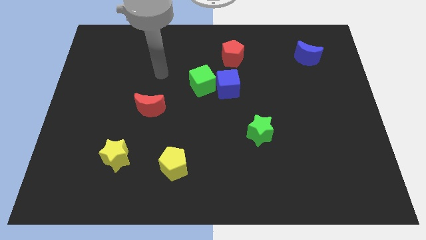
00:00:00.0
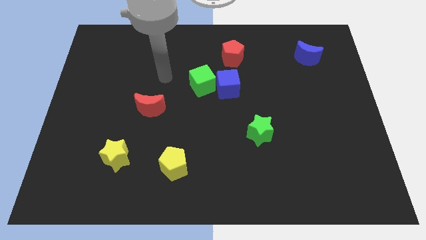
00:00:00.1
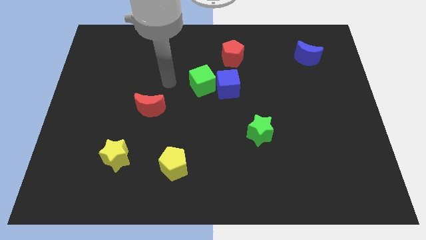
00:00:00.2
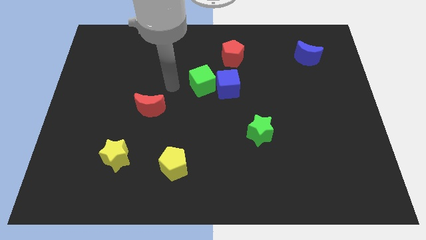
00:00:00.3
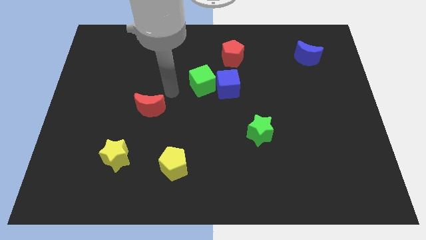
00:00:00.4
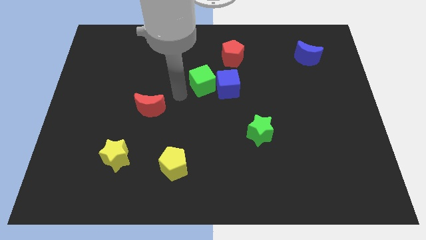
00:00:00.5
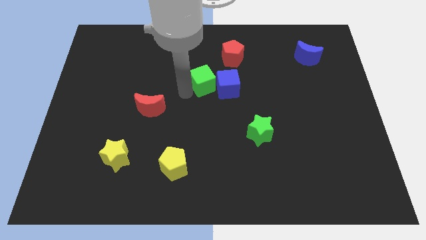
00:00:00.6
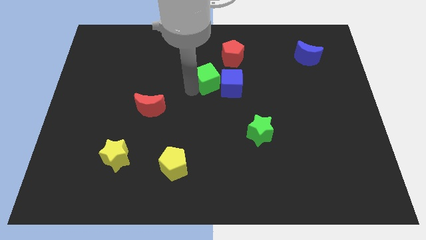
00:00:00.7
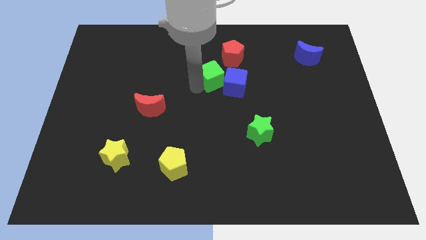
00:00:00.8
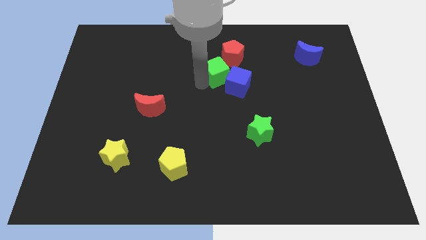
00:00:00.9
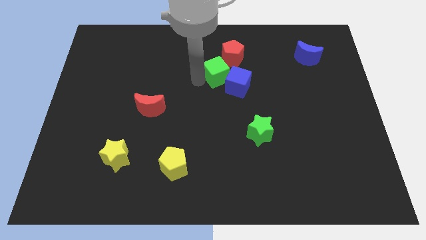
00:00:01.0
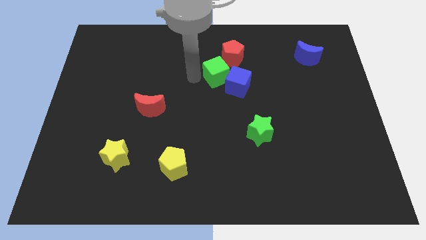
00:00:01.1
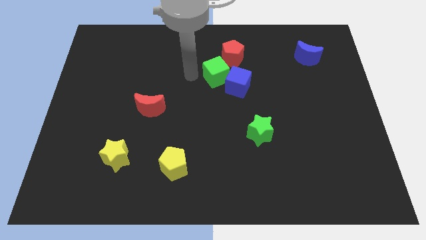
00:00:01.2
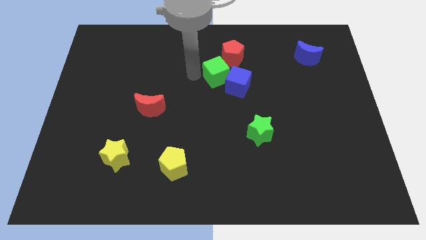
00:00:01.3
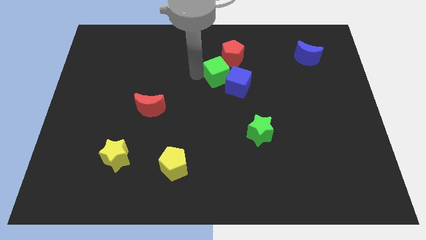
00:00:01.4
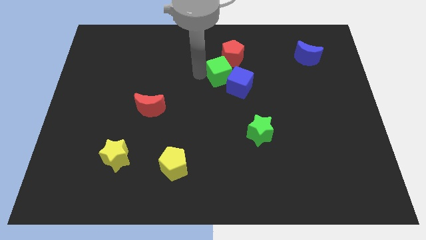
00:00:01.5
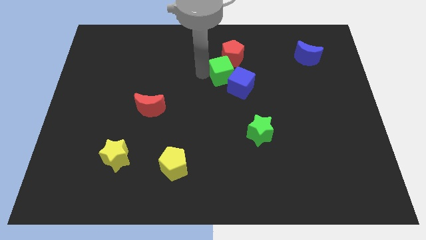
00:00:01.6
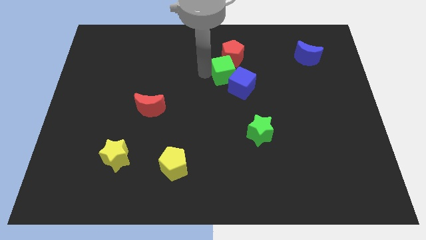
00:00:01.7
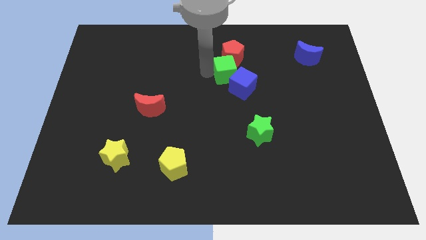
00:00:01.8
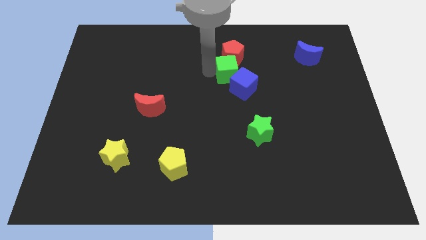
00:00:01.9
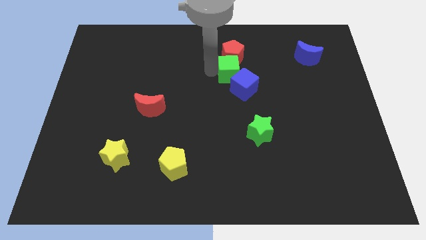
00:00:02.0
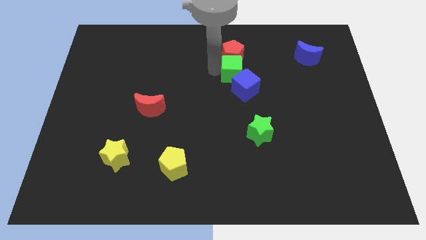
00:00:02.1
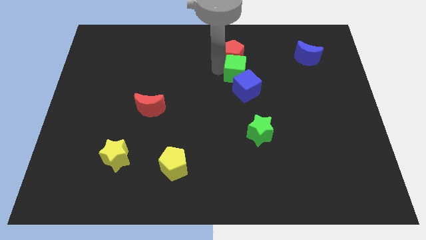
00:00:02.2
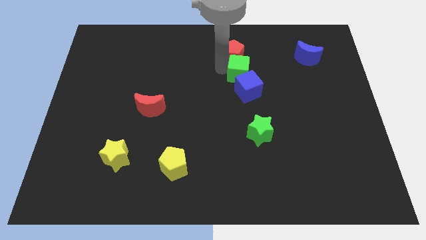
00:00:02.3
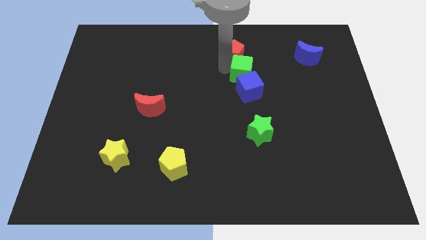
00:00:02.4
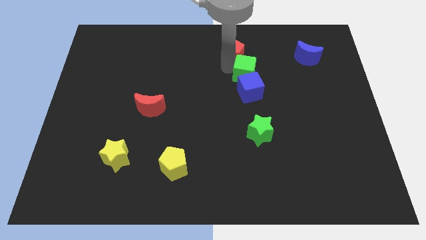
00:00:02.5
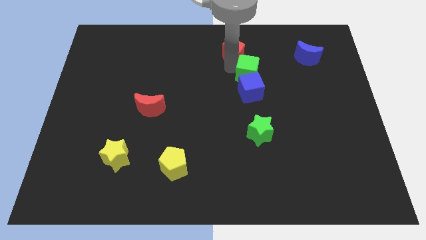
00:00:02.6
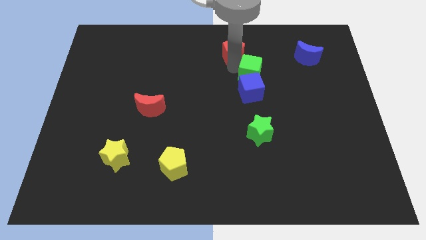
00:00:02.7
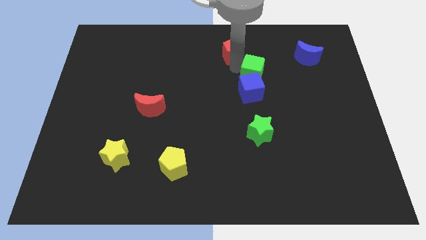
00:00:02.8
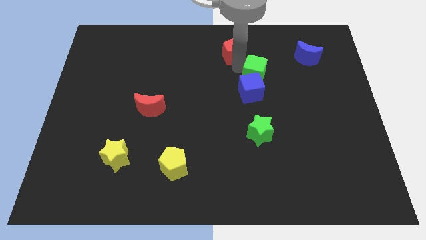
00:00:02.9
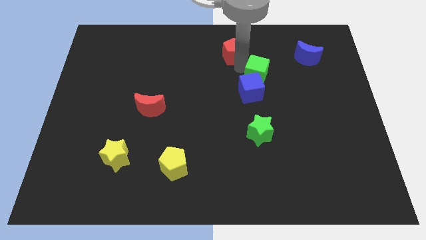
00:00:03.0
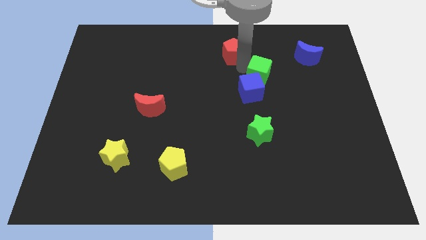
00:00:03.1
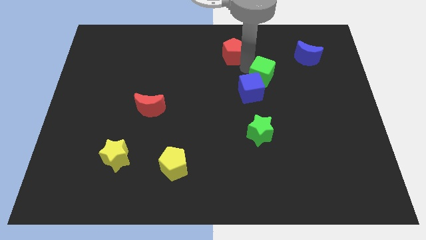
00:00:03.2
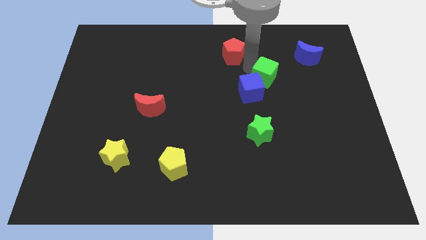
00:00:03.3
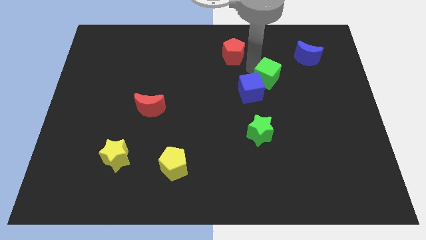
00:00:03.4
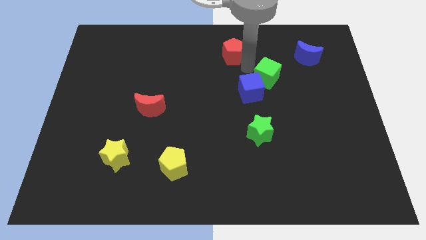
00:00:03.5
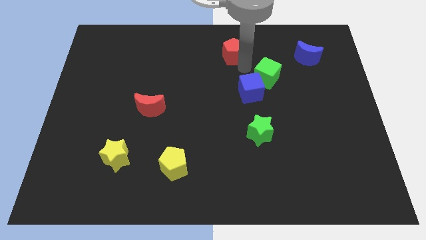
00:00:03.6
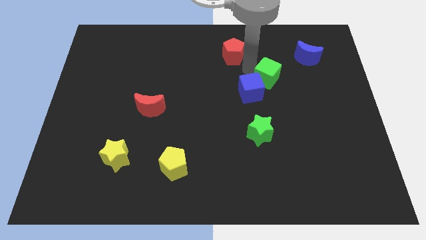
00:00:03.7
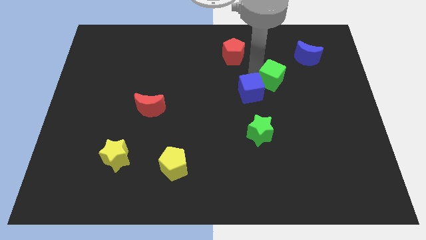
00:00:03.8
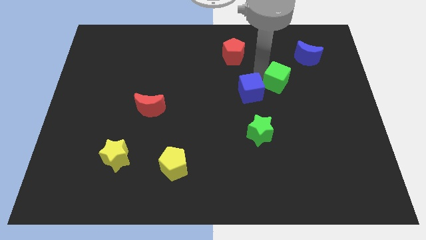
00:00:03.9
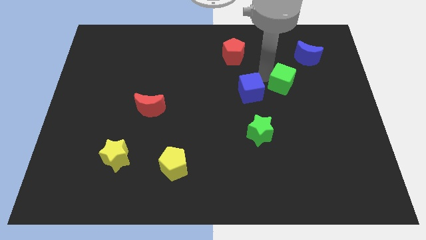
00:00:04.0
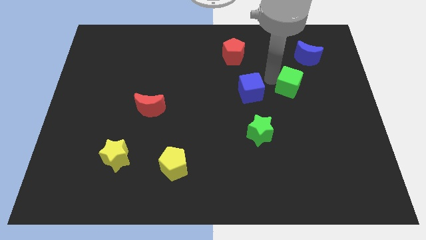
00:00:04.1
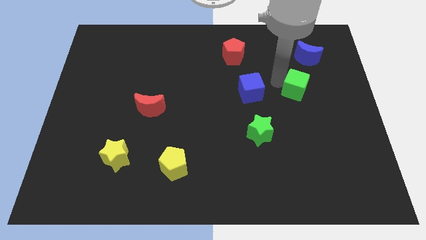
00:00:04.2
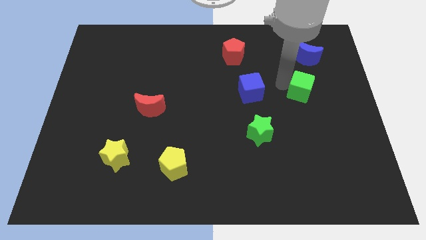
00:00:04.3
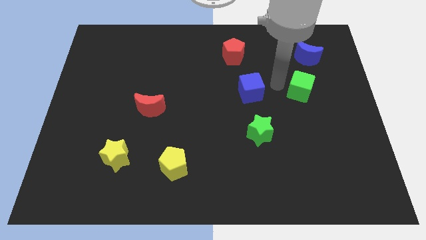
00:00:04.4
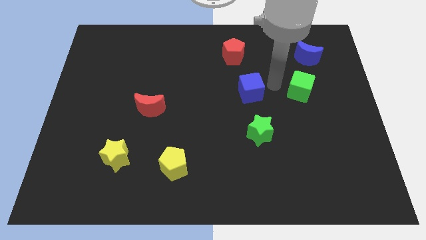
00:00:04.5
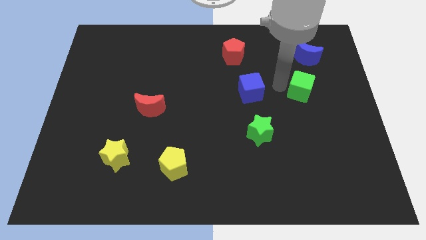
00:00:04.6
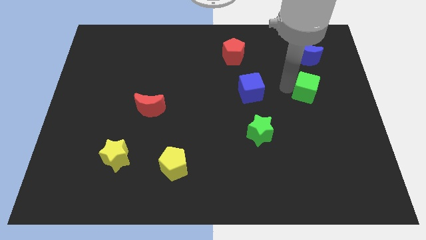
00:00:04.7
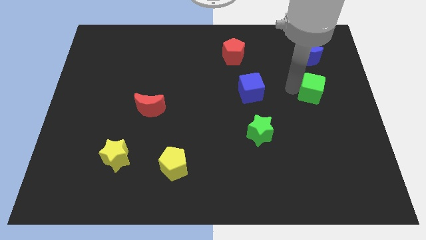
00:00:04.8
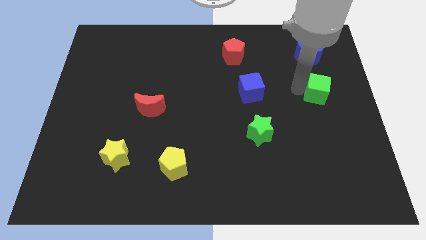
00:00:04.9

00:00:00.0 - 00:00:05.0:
slide the green cube to the right side

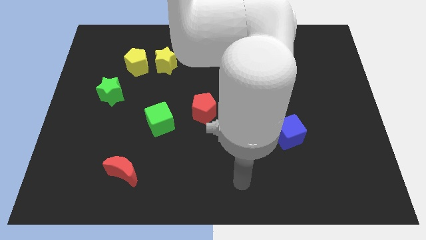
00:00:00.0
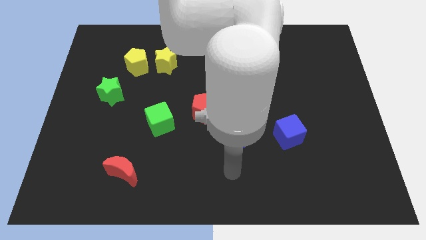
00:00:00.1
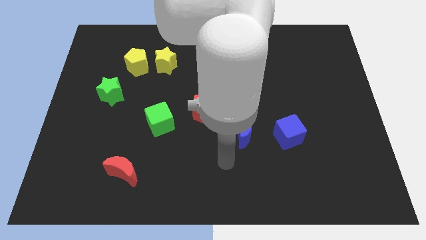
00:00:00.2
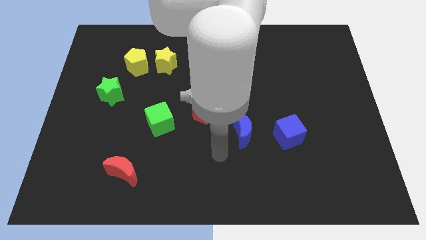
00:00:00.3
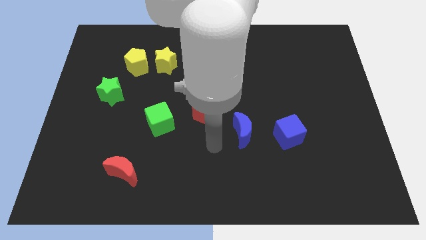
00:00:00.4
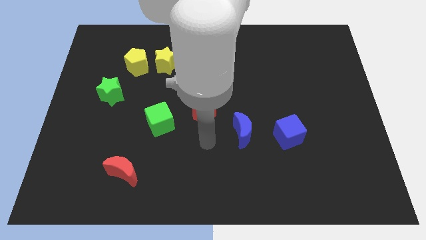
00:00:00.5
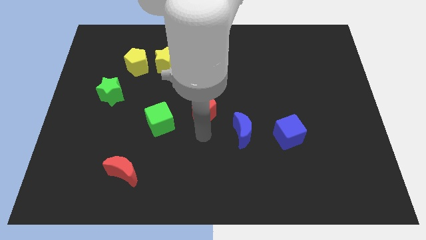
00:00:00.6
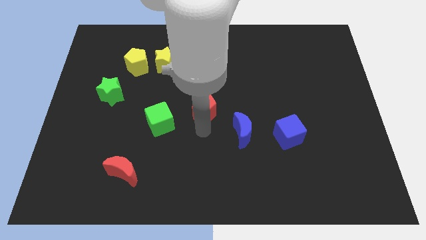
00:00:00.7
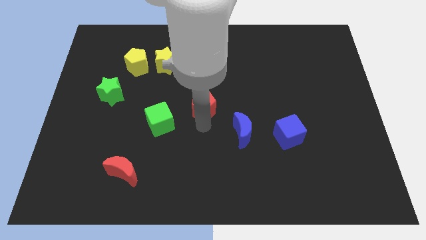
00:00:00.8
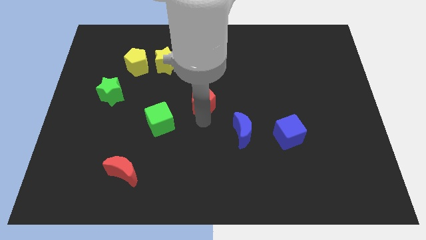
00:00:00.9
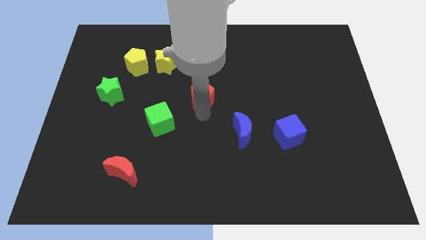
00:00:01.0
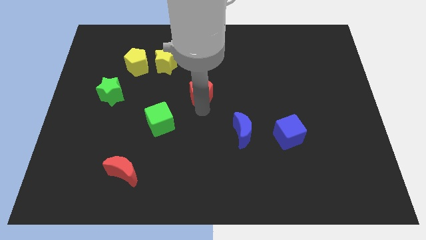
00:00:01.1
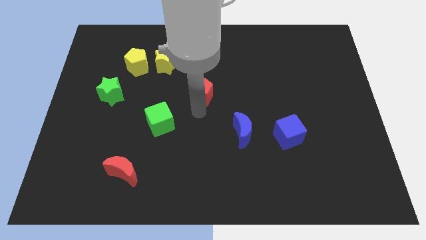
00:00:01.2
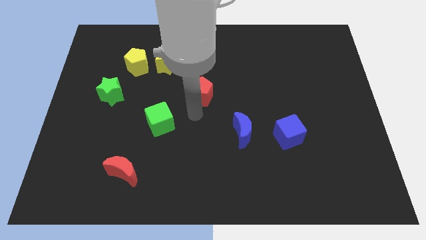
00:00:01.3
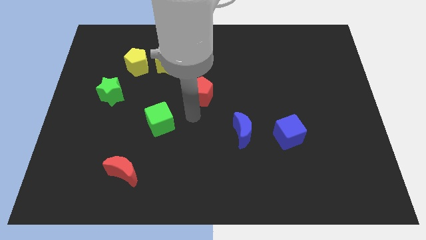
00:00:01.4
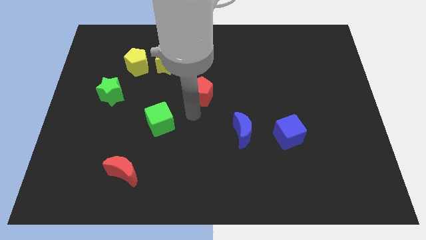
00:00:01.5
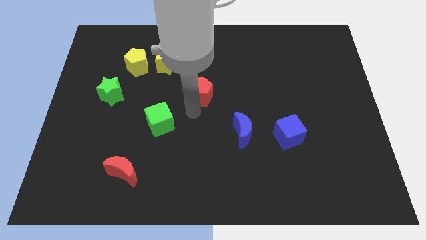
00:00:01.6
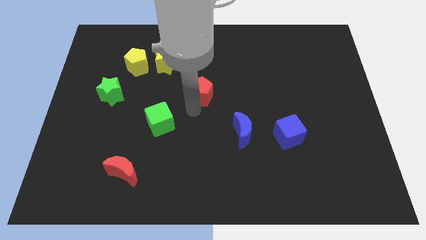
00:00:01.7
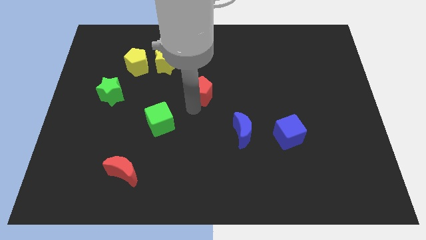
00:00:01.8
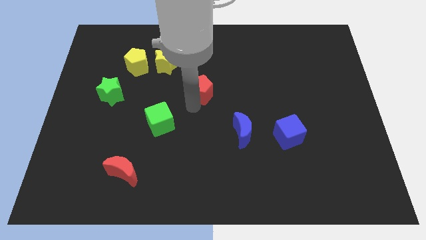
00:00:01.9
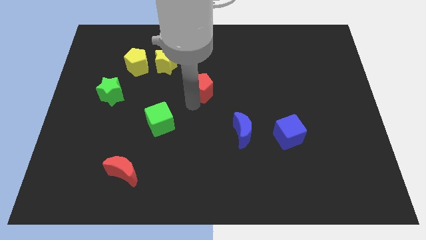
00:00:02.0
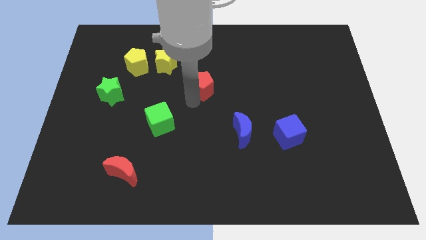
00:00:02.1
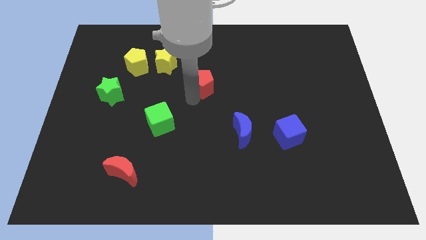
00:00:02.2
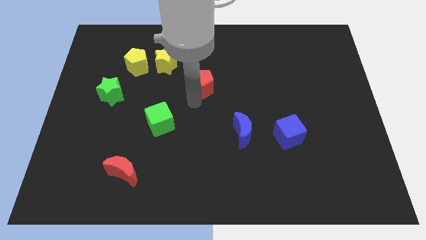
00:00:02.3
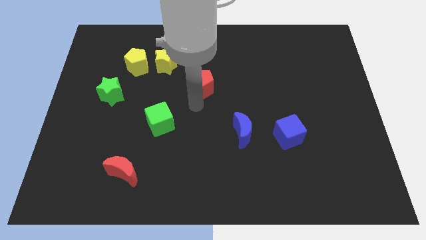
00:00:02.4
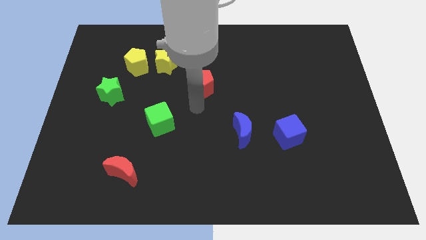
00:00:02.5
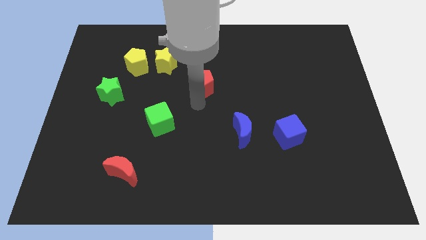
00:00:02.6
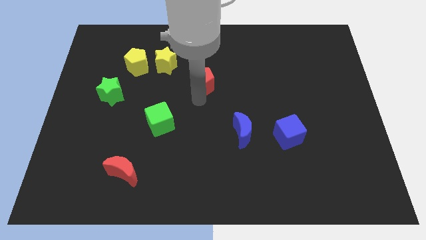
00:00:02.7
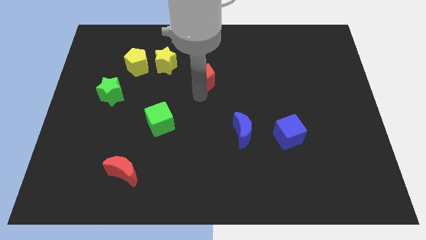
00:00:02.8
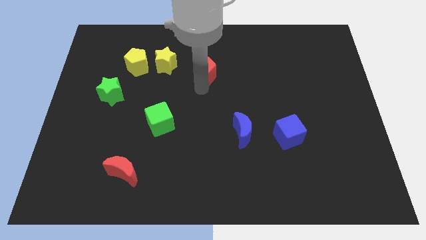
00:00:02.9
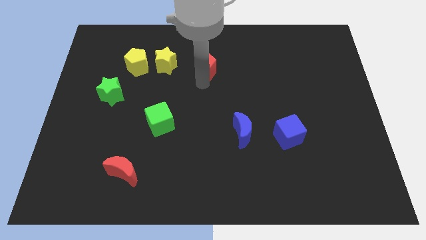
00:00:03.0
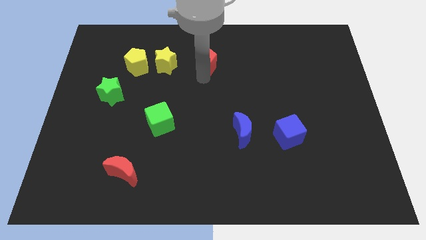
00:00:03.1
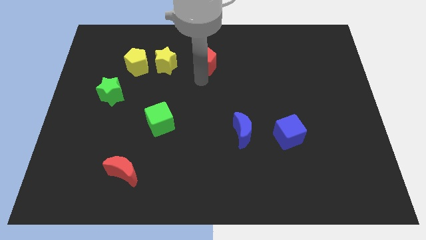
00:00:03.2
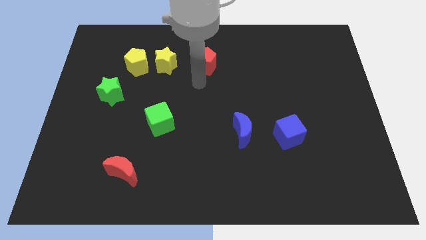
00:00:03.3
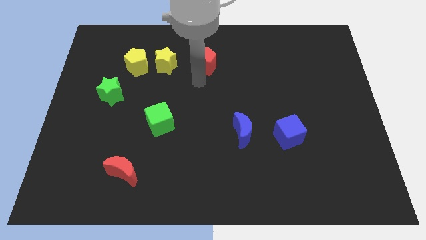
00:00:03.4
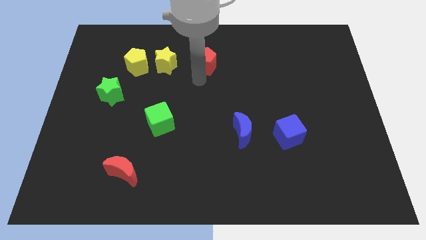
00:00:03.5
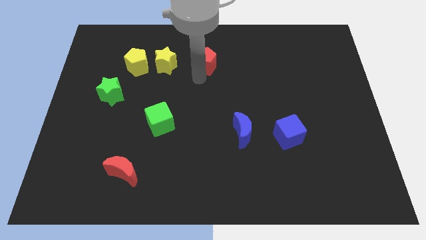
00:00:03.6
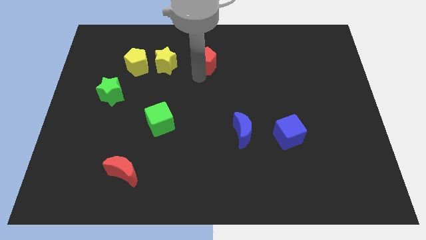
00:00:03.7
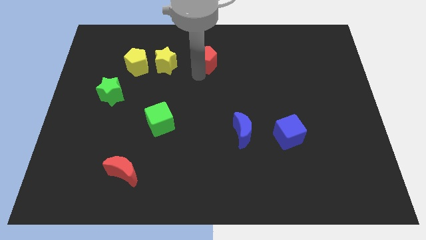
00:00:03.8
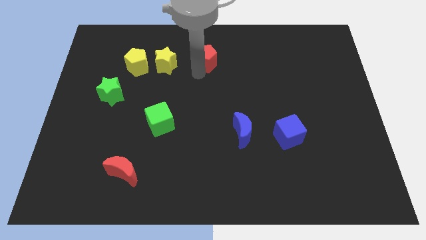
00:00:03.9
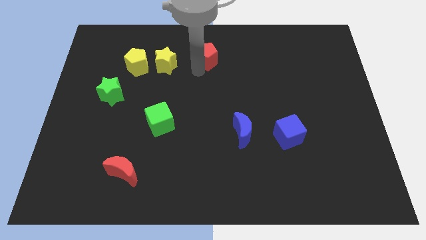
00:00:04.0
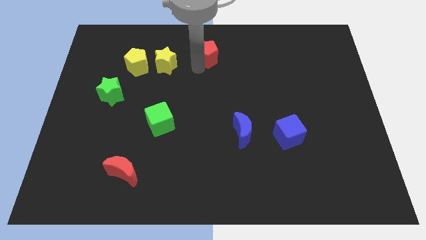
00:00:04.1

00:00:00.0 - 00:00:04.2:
slide the red pentagon to the top side
